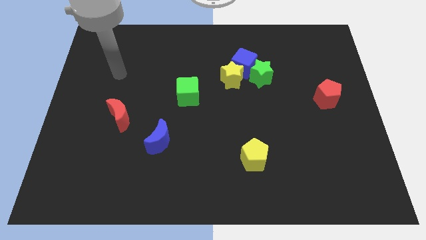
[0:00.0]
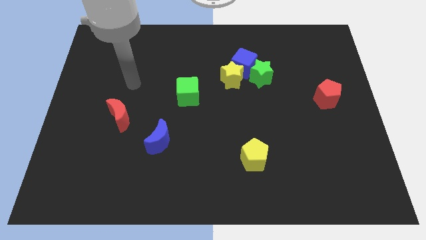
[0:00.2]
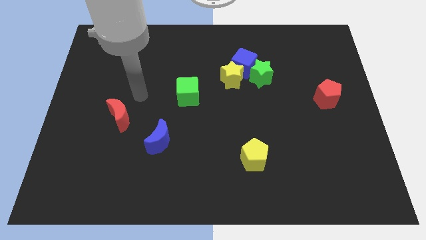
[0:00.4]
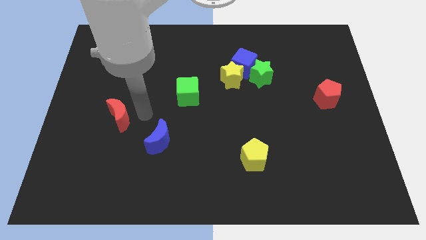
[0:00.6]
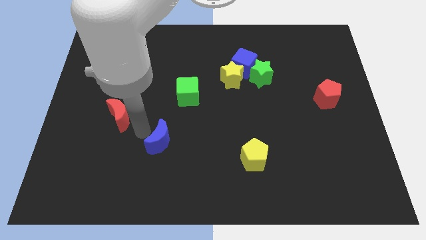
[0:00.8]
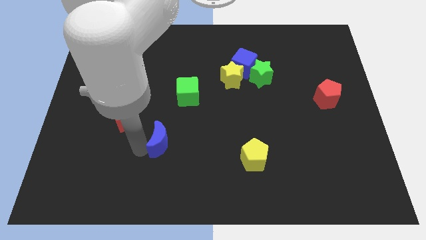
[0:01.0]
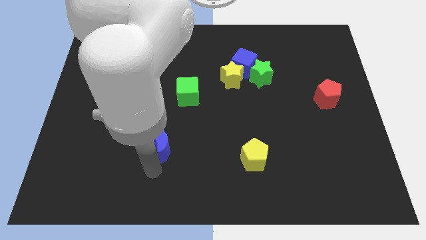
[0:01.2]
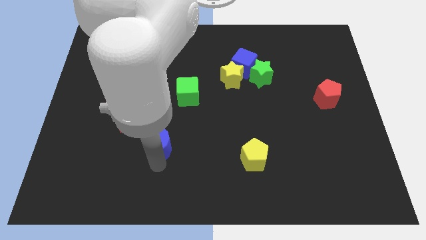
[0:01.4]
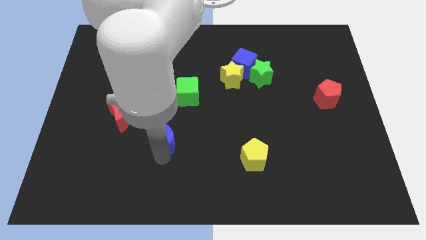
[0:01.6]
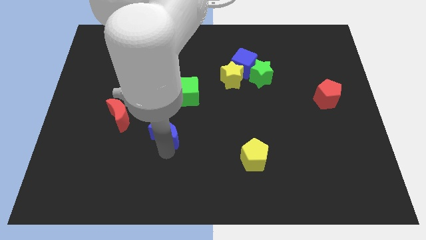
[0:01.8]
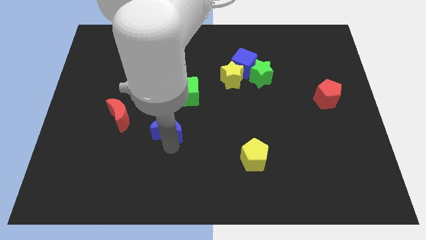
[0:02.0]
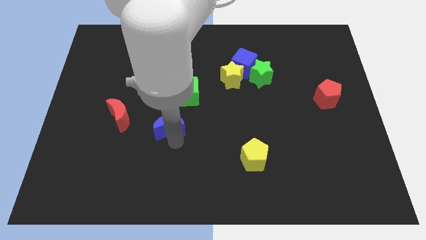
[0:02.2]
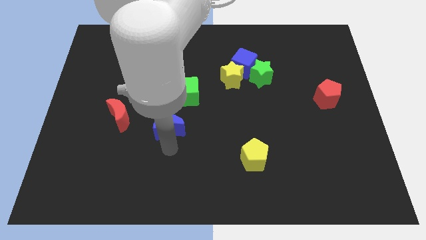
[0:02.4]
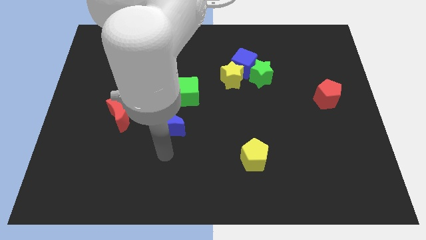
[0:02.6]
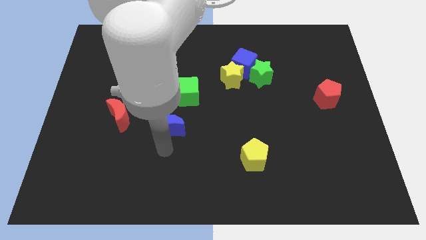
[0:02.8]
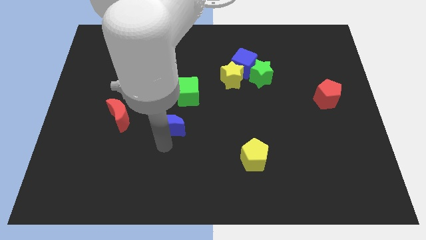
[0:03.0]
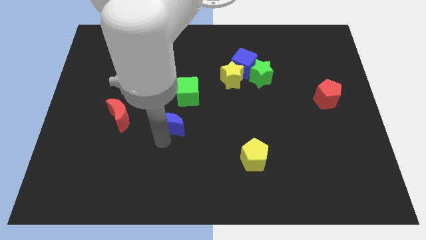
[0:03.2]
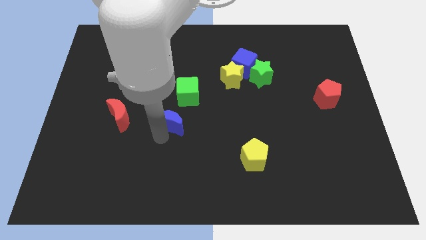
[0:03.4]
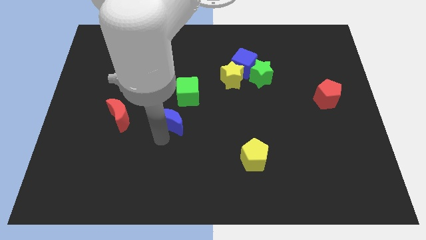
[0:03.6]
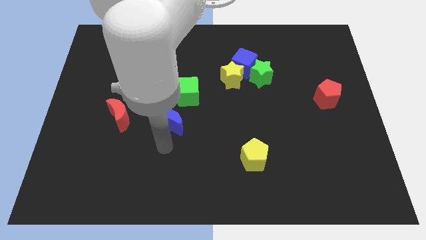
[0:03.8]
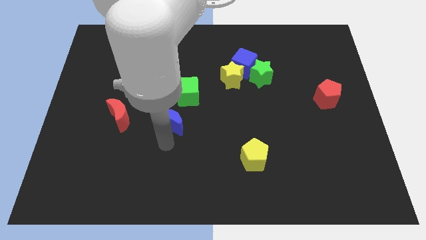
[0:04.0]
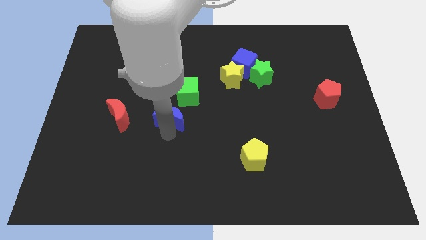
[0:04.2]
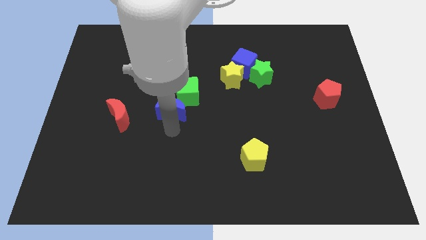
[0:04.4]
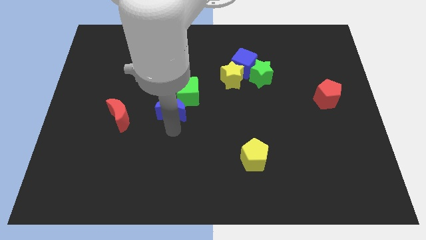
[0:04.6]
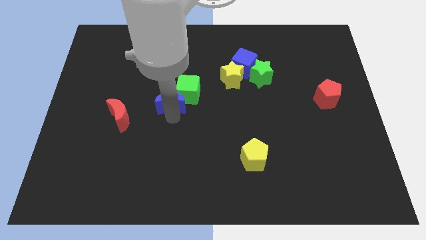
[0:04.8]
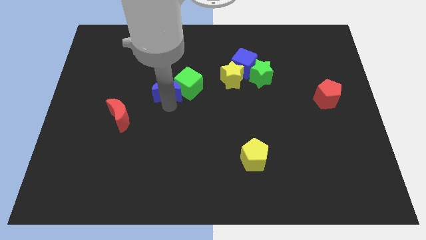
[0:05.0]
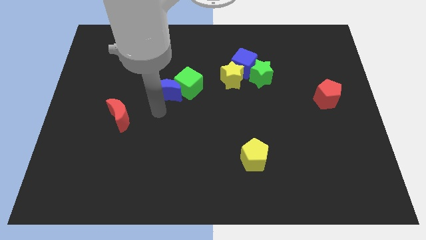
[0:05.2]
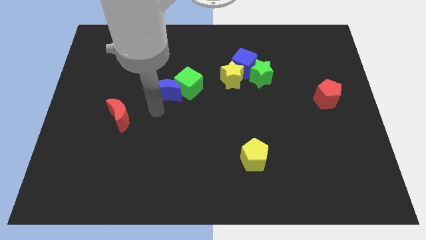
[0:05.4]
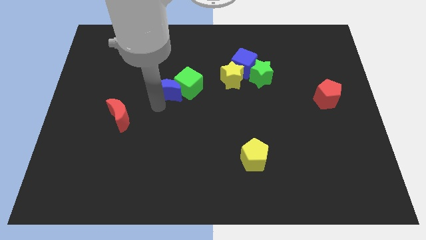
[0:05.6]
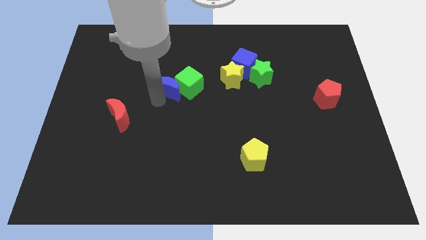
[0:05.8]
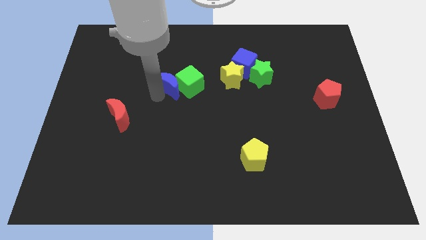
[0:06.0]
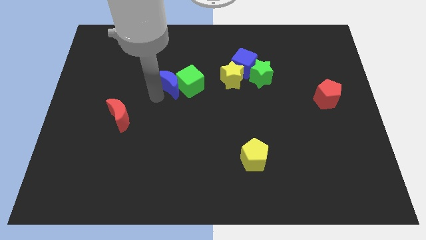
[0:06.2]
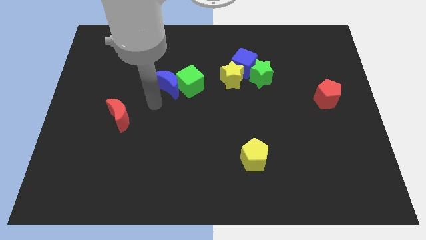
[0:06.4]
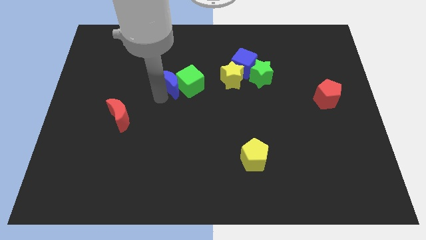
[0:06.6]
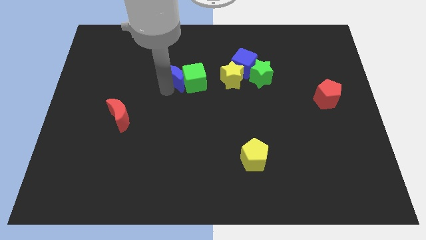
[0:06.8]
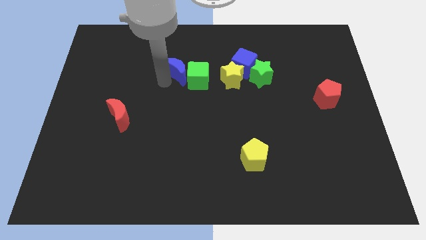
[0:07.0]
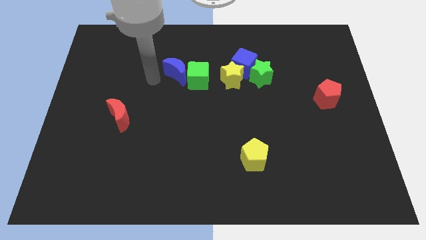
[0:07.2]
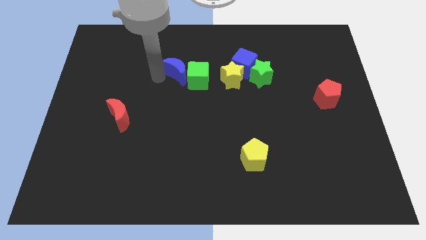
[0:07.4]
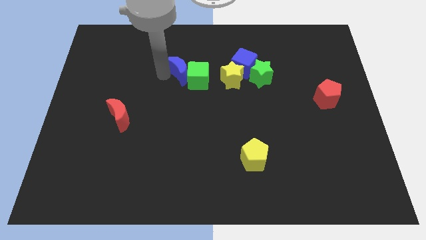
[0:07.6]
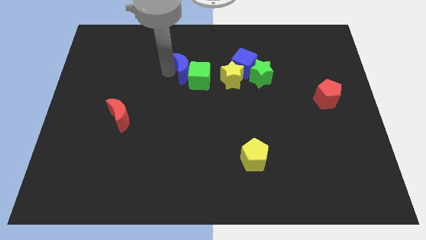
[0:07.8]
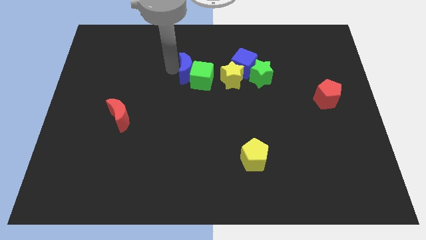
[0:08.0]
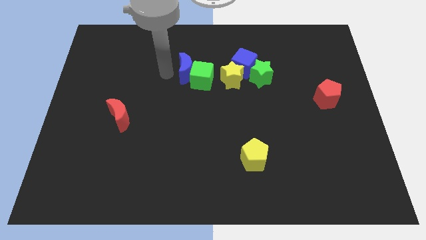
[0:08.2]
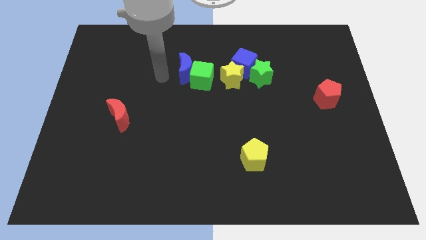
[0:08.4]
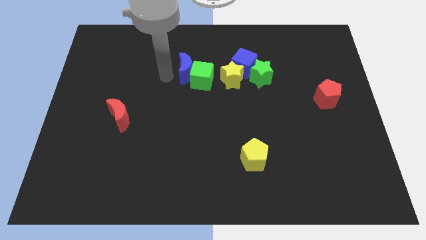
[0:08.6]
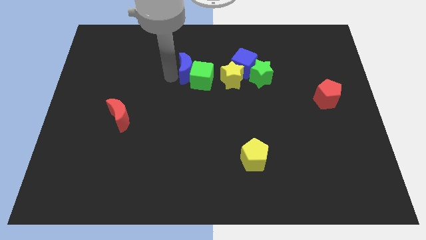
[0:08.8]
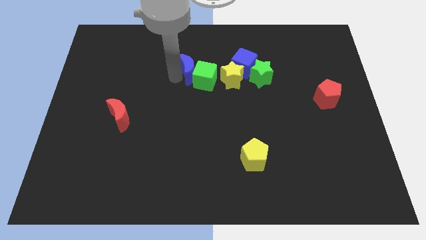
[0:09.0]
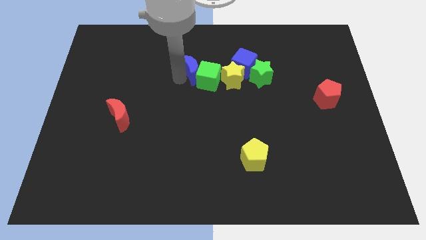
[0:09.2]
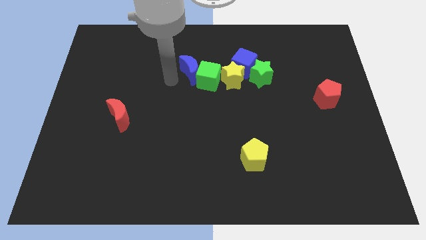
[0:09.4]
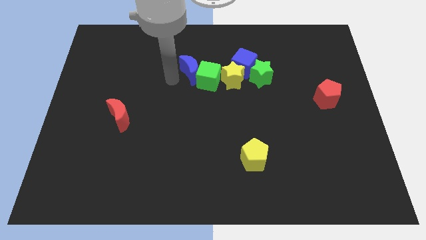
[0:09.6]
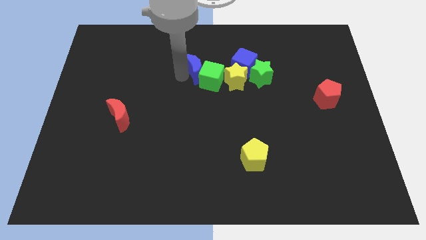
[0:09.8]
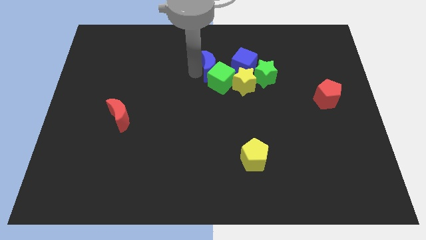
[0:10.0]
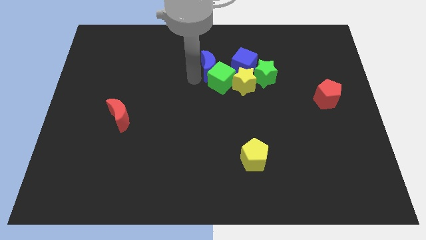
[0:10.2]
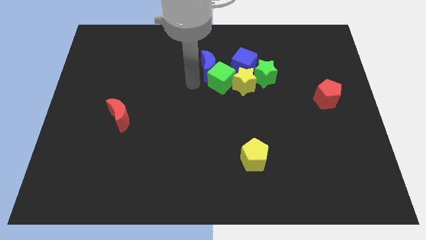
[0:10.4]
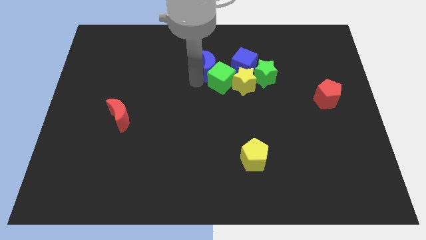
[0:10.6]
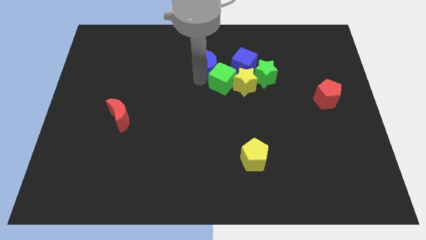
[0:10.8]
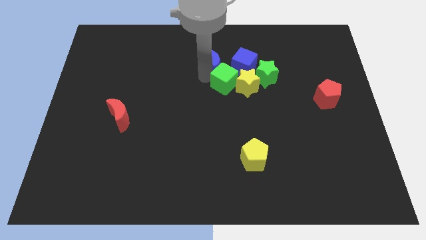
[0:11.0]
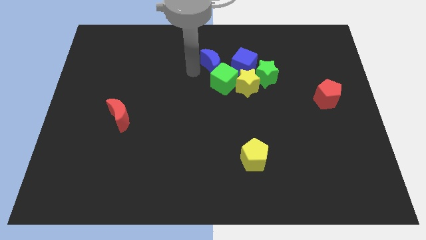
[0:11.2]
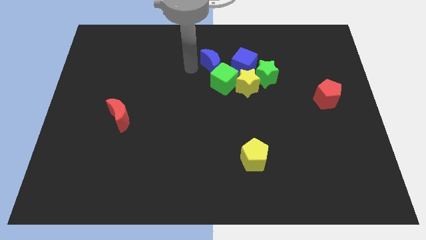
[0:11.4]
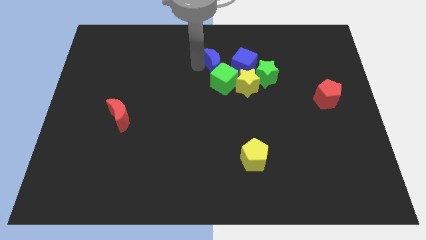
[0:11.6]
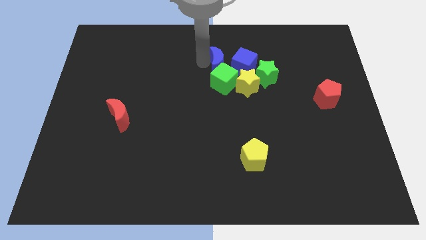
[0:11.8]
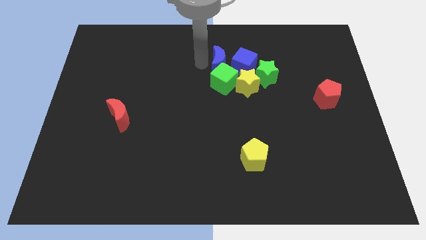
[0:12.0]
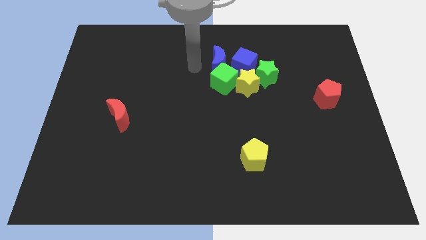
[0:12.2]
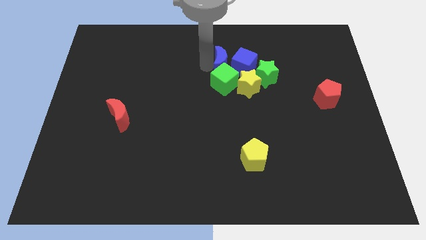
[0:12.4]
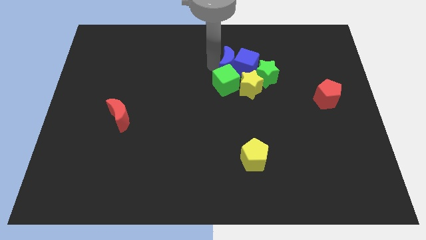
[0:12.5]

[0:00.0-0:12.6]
push the blue moon diagonally up and to the left of the green star

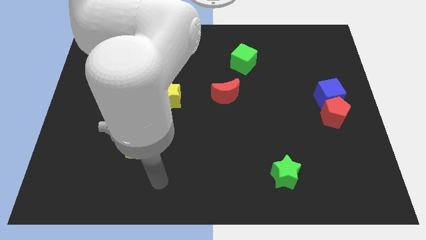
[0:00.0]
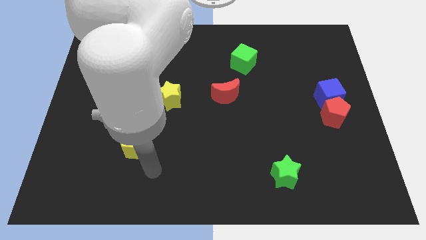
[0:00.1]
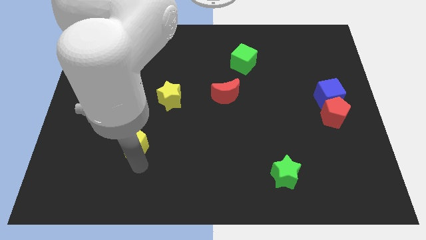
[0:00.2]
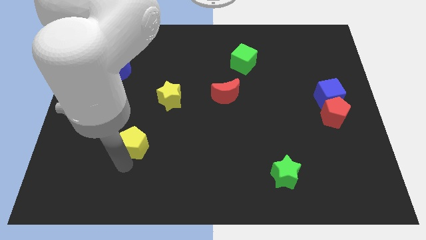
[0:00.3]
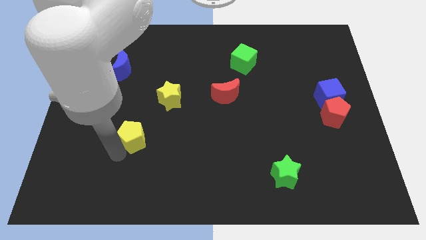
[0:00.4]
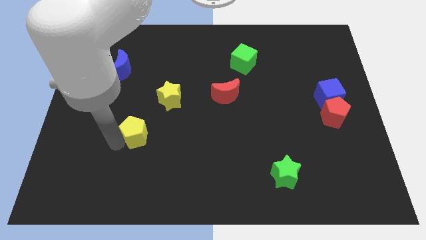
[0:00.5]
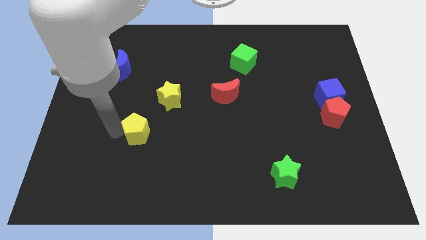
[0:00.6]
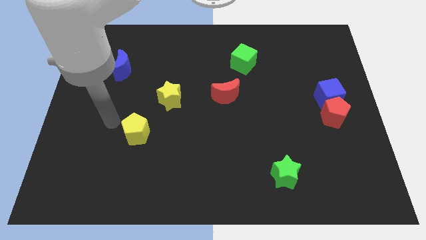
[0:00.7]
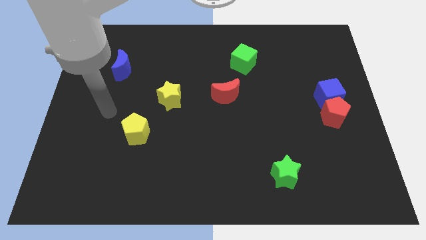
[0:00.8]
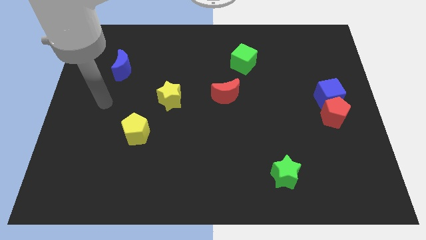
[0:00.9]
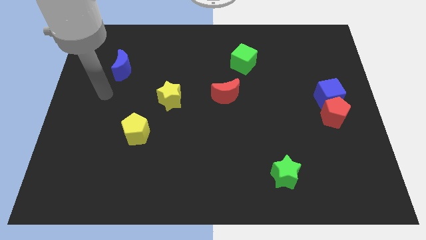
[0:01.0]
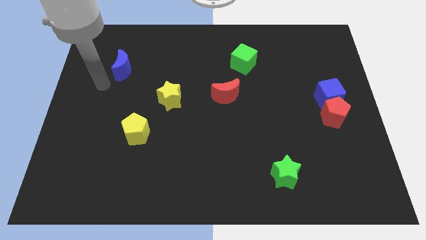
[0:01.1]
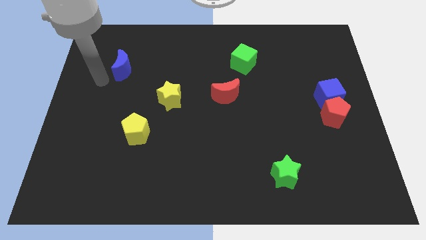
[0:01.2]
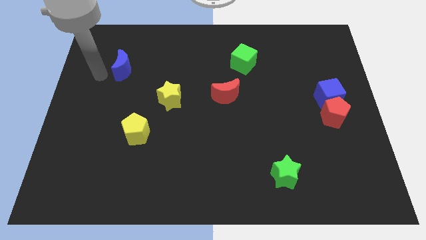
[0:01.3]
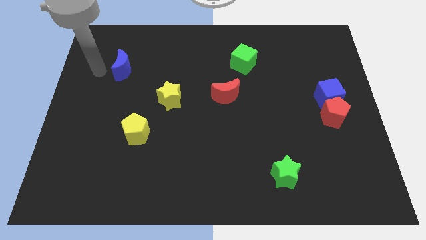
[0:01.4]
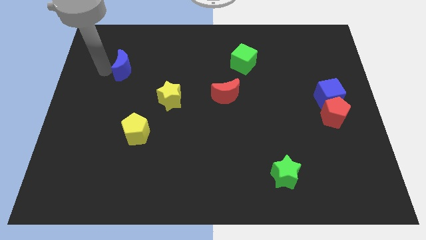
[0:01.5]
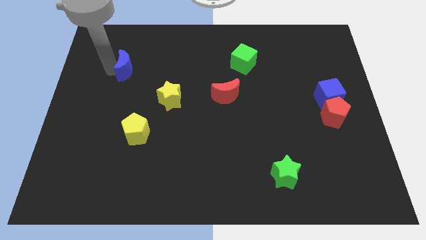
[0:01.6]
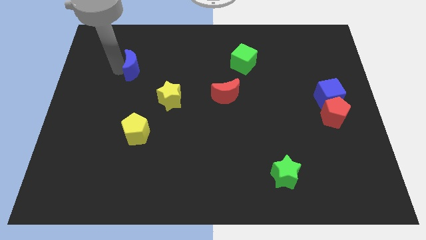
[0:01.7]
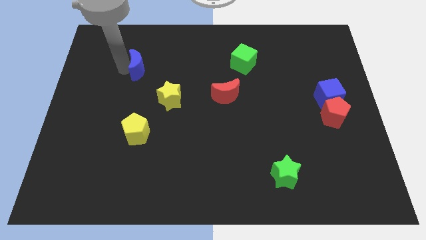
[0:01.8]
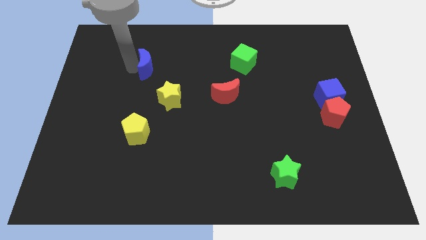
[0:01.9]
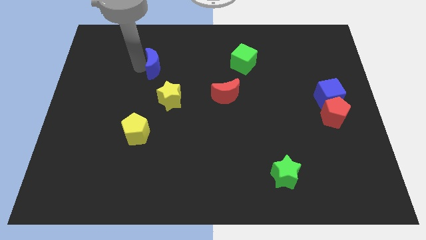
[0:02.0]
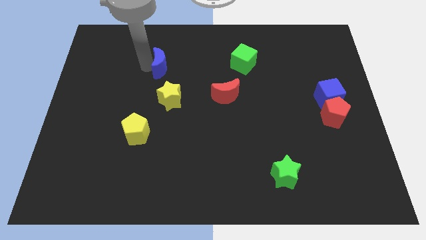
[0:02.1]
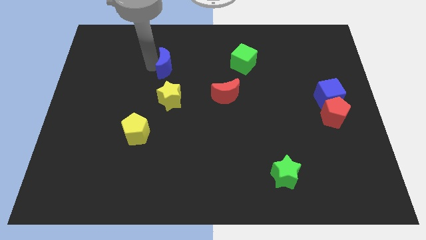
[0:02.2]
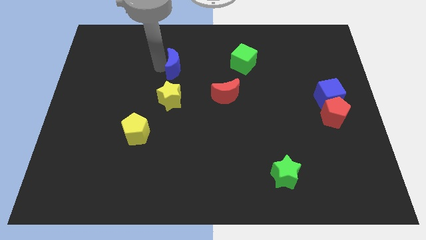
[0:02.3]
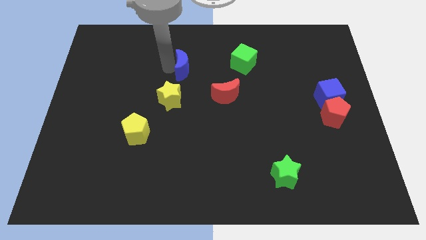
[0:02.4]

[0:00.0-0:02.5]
move the blue moon just left of the green cube
